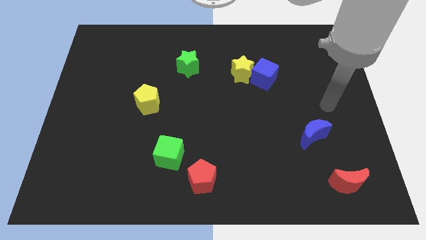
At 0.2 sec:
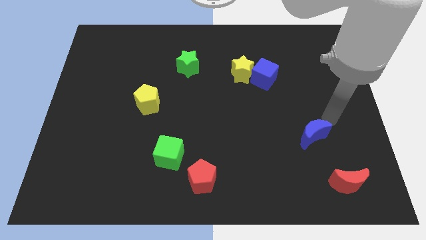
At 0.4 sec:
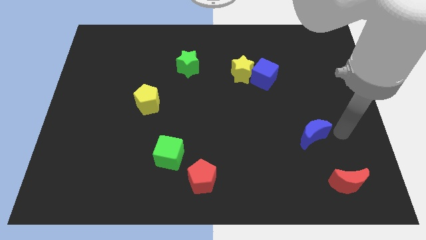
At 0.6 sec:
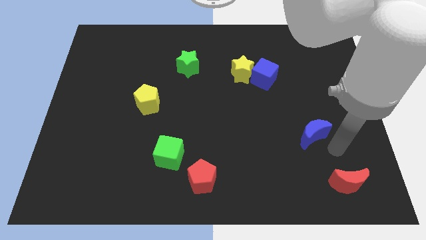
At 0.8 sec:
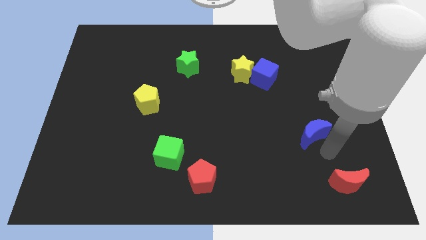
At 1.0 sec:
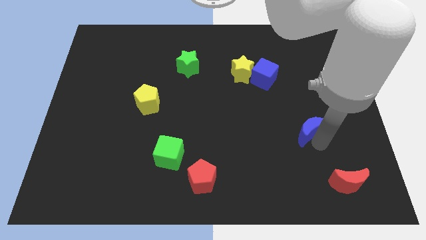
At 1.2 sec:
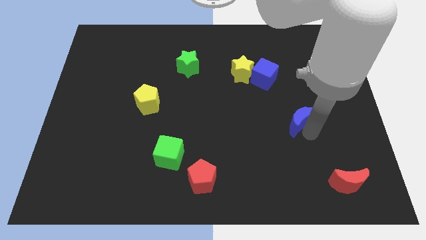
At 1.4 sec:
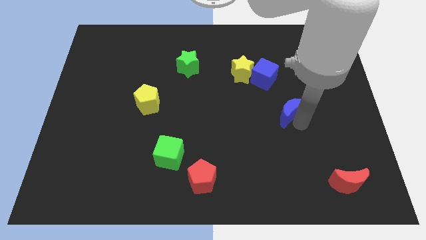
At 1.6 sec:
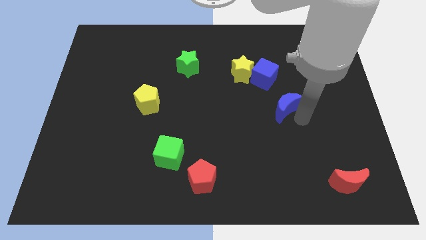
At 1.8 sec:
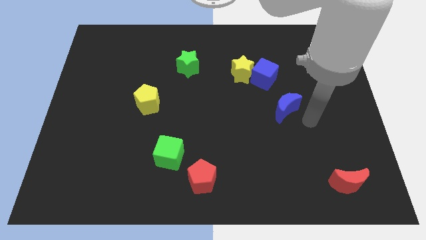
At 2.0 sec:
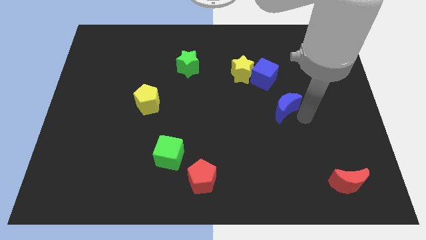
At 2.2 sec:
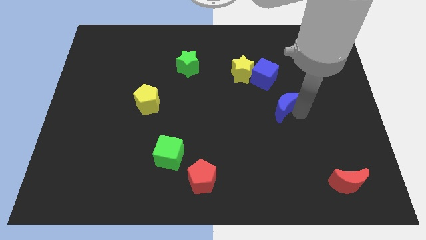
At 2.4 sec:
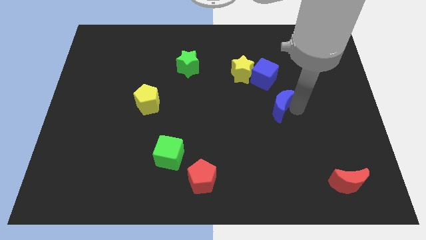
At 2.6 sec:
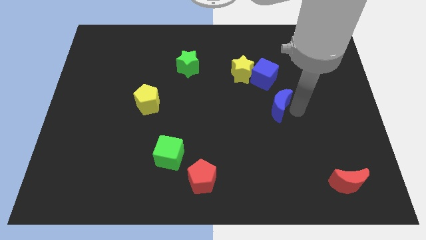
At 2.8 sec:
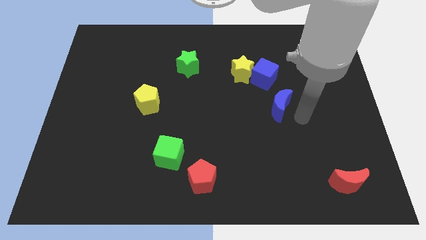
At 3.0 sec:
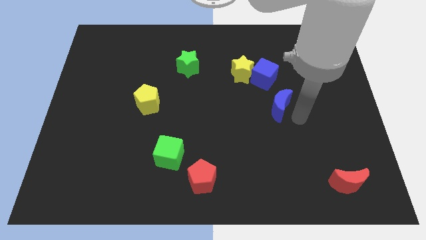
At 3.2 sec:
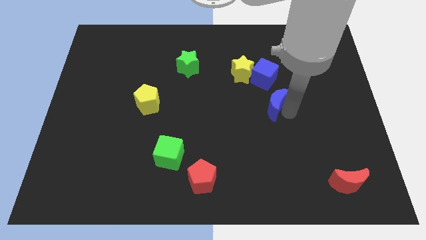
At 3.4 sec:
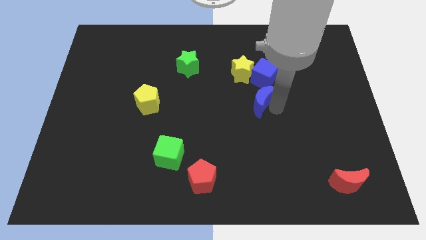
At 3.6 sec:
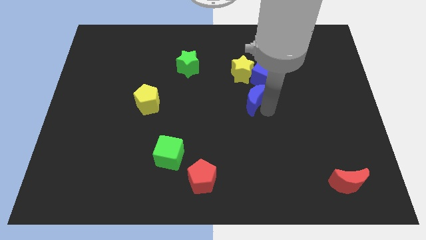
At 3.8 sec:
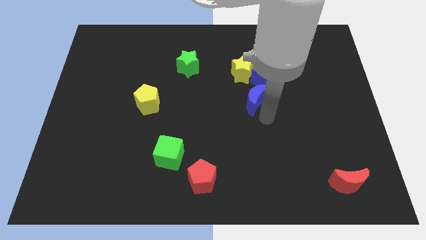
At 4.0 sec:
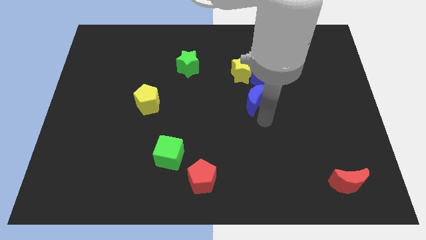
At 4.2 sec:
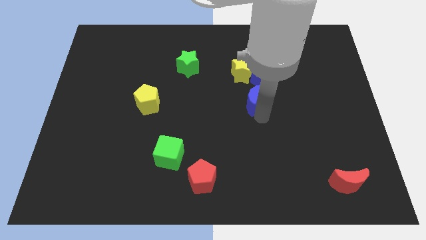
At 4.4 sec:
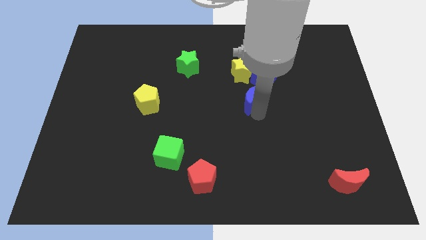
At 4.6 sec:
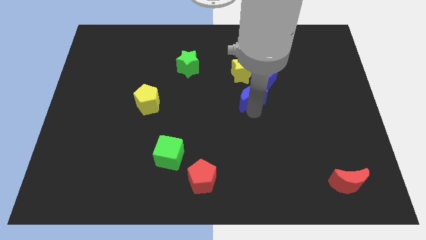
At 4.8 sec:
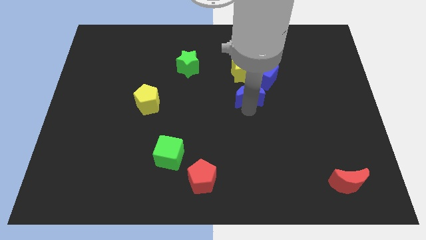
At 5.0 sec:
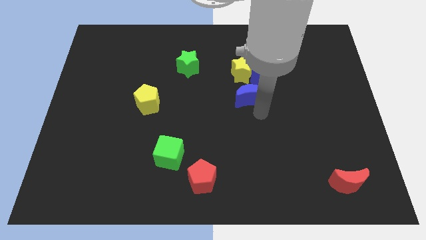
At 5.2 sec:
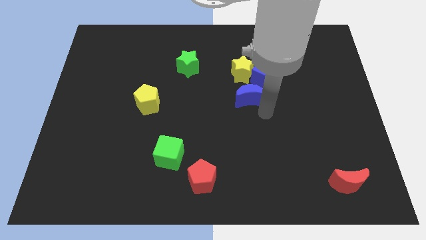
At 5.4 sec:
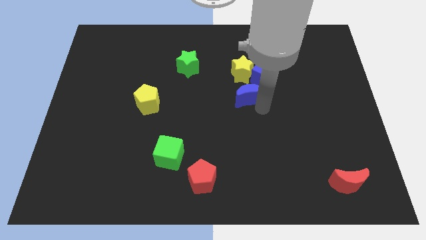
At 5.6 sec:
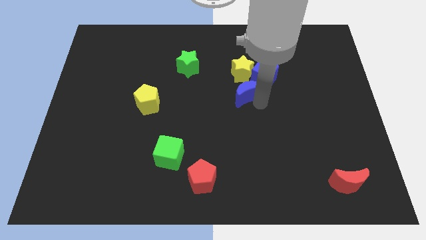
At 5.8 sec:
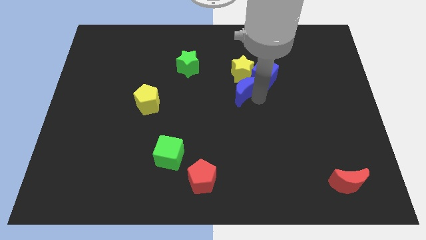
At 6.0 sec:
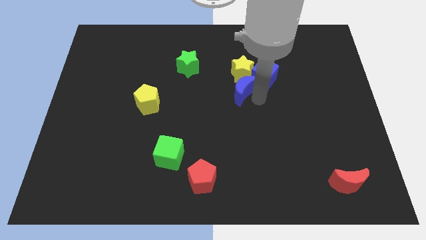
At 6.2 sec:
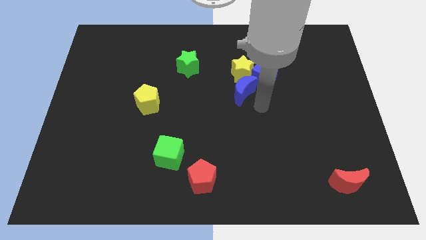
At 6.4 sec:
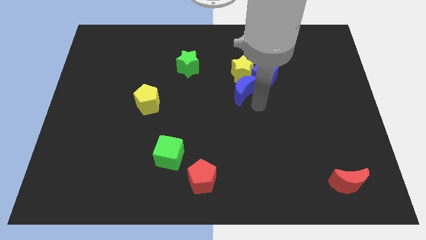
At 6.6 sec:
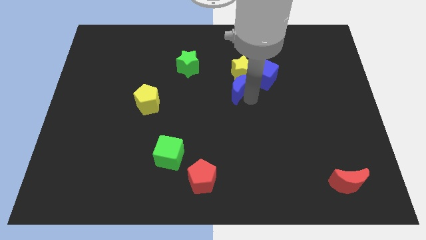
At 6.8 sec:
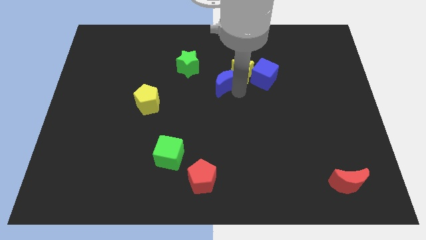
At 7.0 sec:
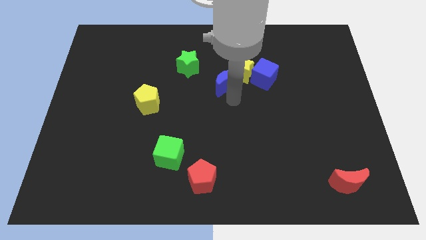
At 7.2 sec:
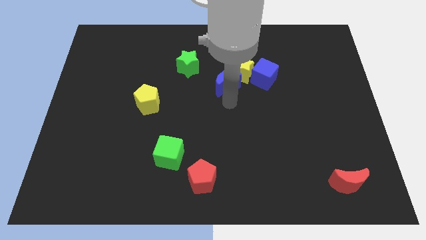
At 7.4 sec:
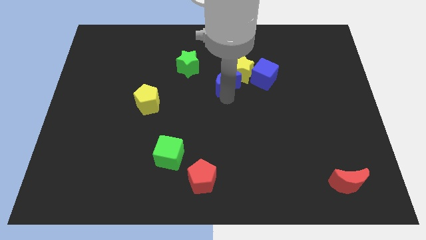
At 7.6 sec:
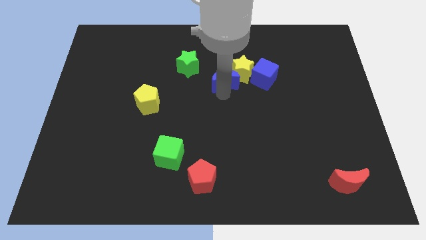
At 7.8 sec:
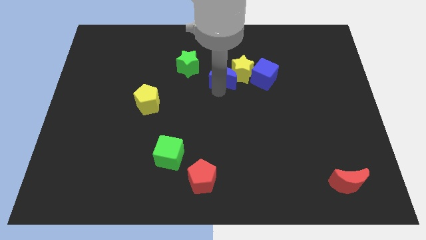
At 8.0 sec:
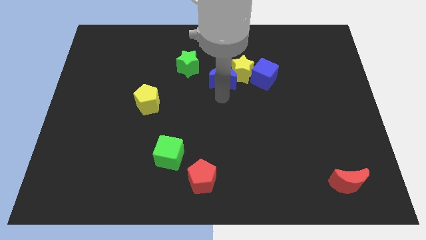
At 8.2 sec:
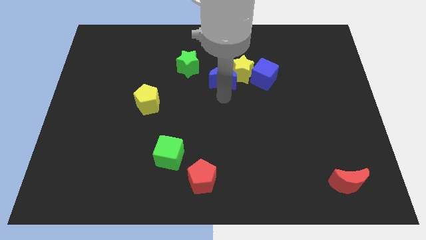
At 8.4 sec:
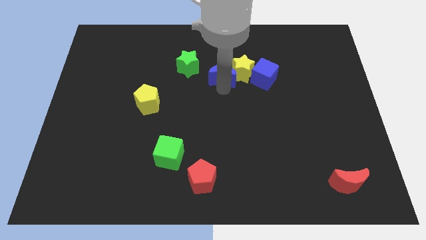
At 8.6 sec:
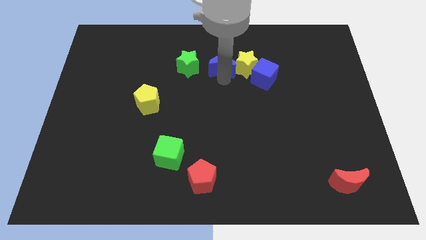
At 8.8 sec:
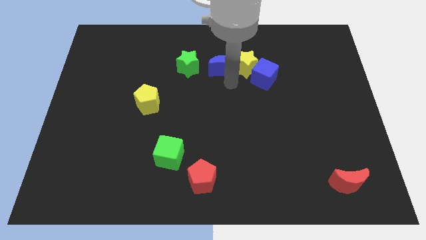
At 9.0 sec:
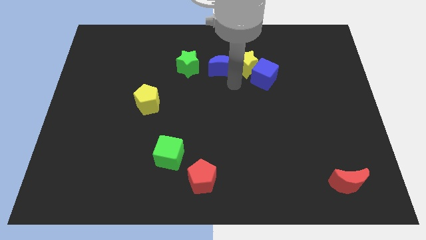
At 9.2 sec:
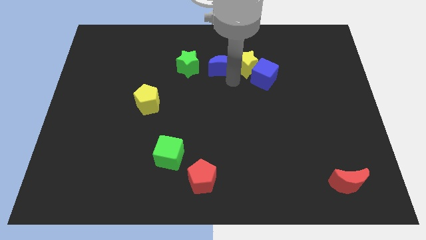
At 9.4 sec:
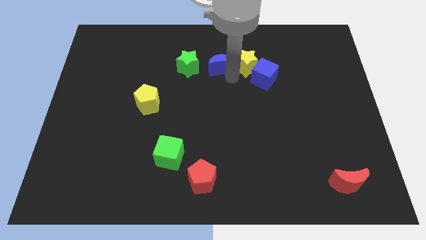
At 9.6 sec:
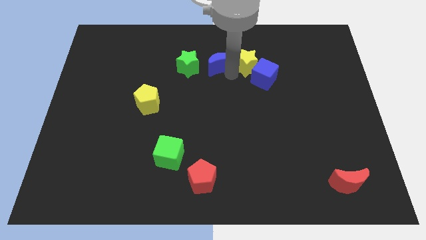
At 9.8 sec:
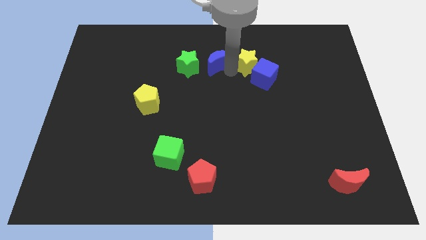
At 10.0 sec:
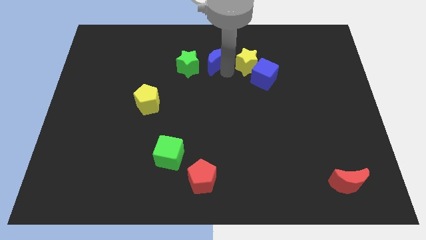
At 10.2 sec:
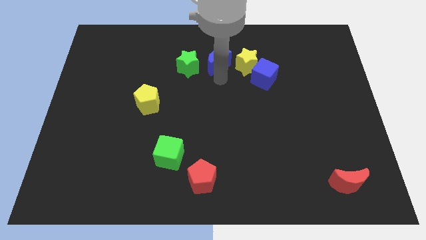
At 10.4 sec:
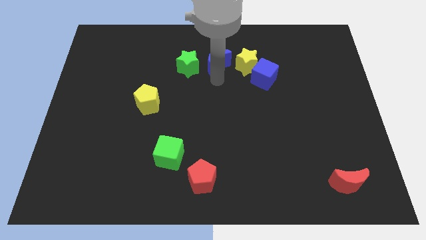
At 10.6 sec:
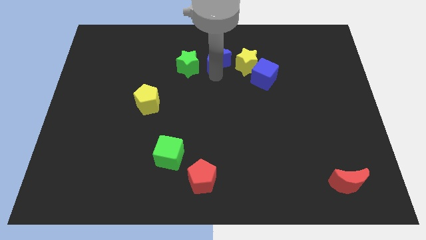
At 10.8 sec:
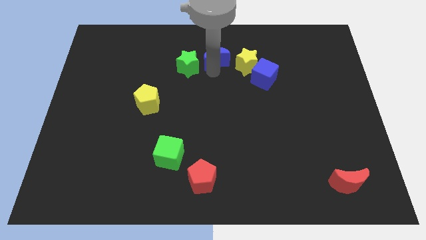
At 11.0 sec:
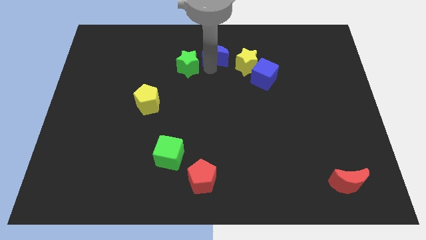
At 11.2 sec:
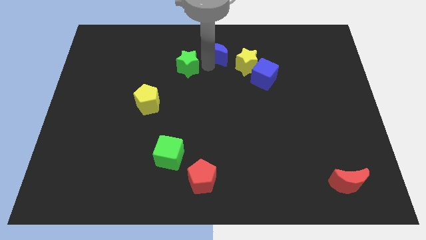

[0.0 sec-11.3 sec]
slide the blue moon to the towards your base

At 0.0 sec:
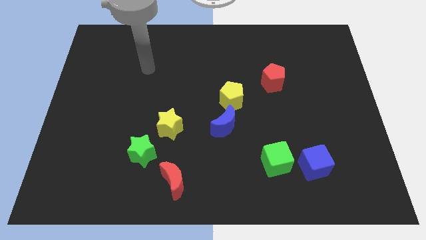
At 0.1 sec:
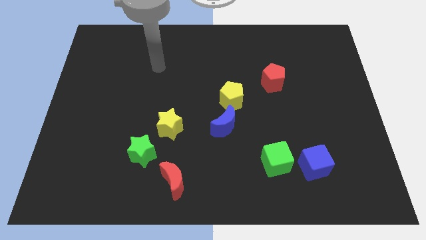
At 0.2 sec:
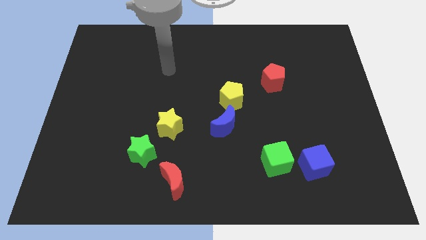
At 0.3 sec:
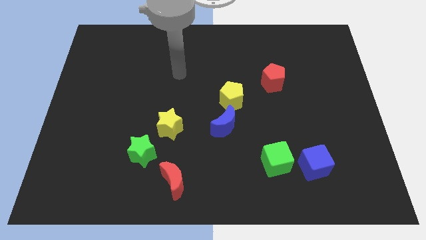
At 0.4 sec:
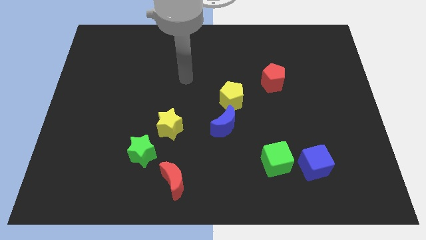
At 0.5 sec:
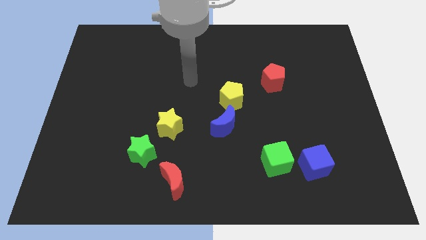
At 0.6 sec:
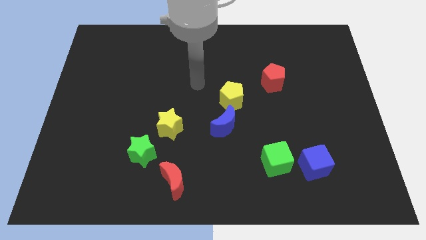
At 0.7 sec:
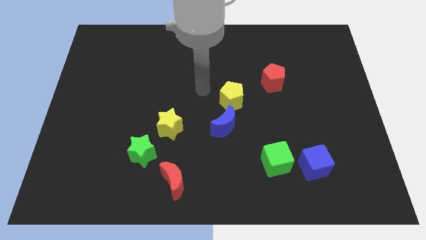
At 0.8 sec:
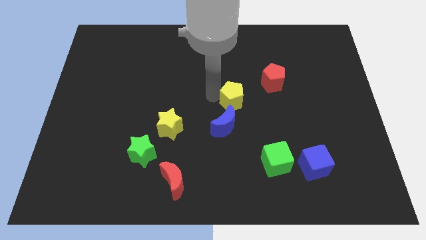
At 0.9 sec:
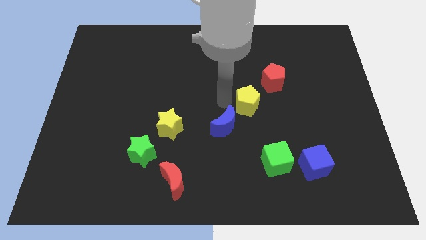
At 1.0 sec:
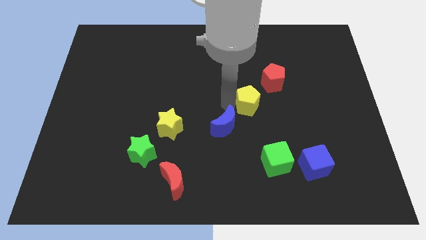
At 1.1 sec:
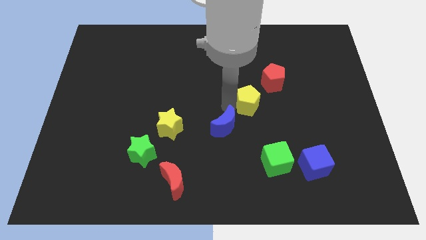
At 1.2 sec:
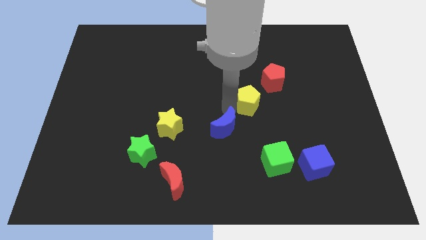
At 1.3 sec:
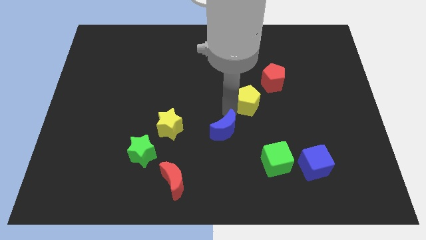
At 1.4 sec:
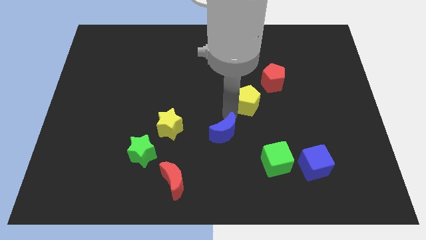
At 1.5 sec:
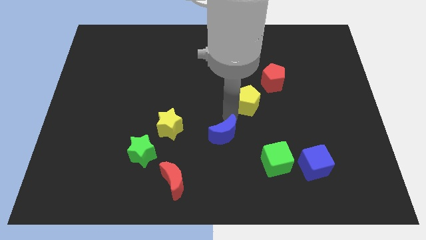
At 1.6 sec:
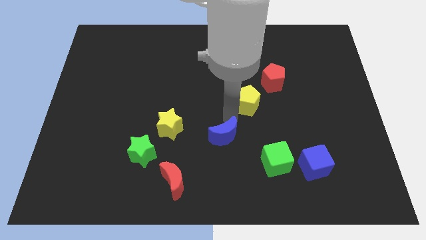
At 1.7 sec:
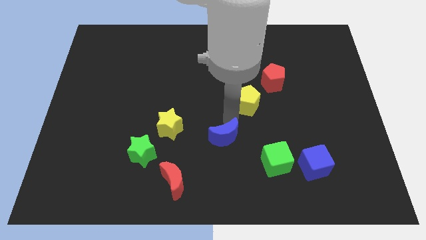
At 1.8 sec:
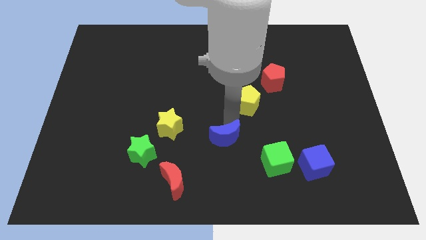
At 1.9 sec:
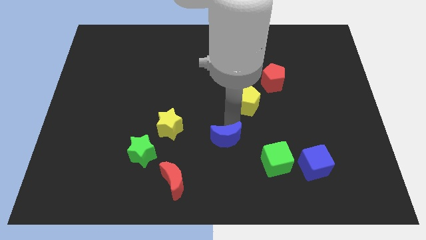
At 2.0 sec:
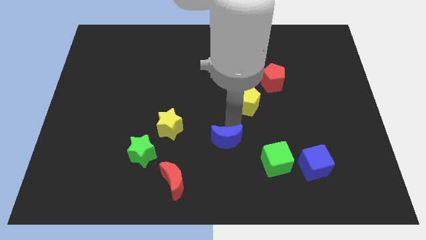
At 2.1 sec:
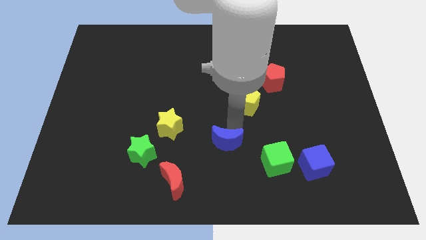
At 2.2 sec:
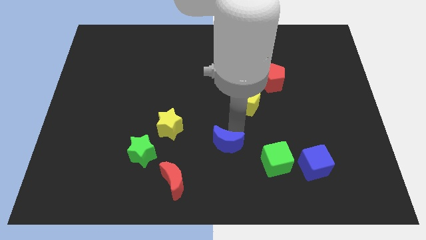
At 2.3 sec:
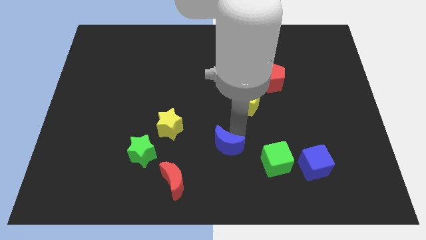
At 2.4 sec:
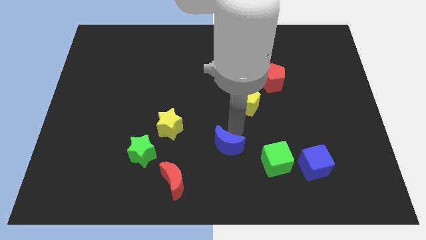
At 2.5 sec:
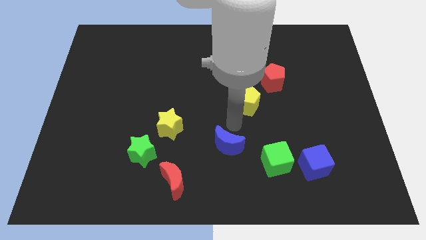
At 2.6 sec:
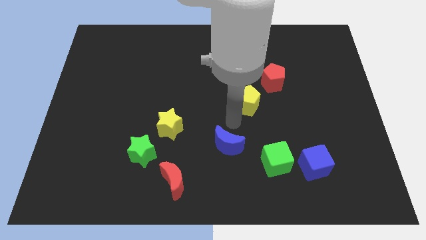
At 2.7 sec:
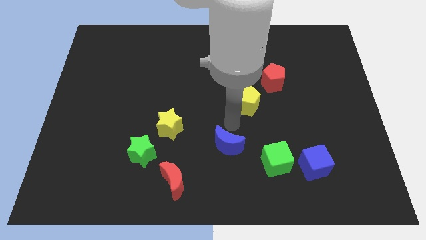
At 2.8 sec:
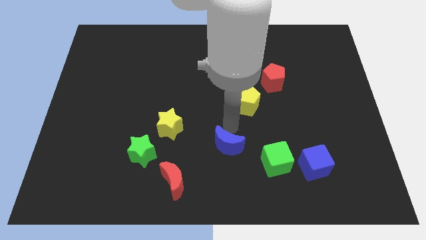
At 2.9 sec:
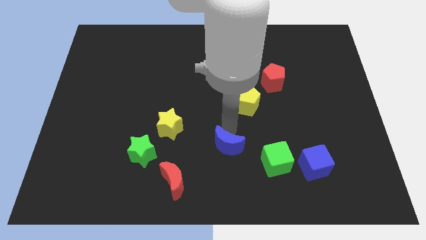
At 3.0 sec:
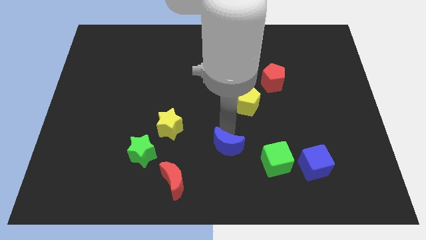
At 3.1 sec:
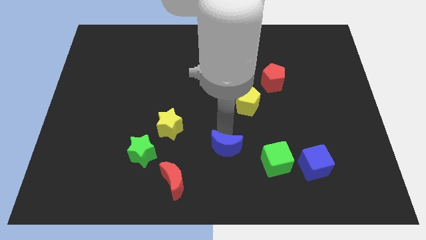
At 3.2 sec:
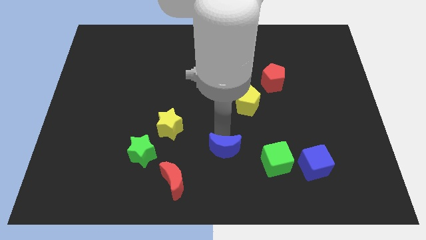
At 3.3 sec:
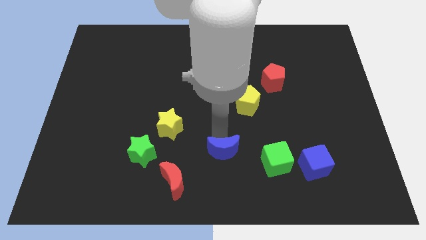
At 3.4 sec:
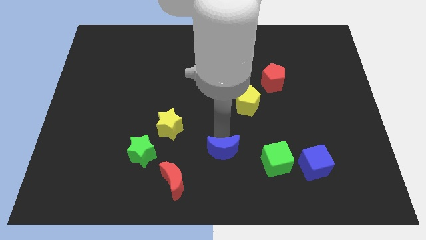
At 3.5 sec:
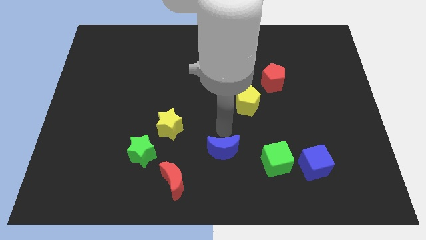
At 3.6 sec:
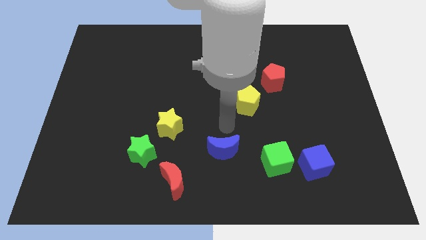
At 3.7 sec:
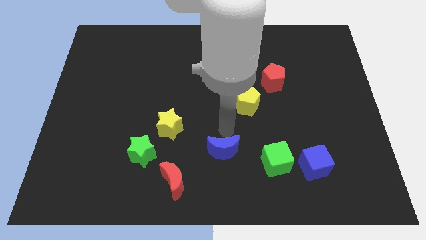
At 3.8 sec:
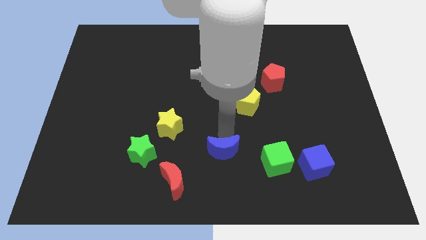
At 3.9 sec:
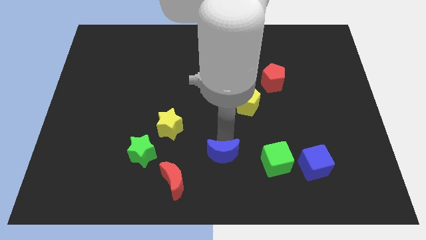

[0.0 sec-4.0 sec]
push the blue moon to the bottom
